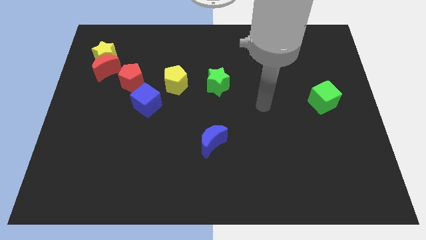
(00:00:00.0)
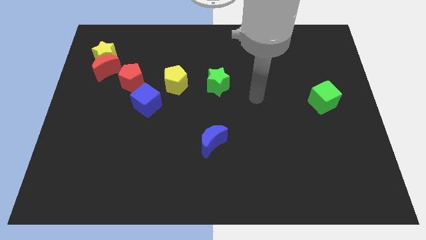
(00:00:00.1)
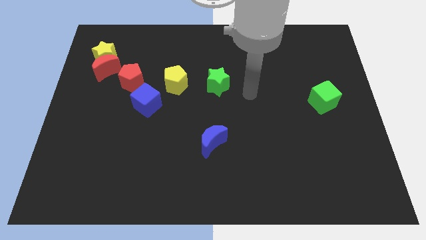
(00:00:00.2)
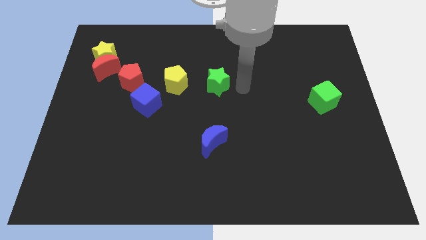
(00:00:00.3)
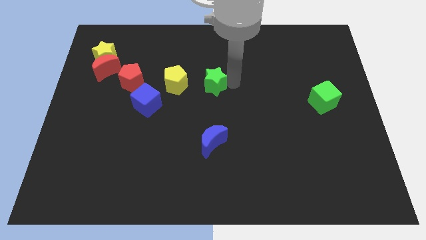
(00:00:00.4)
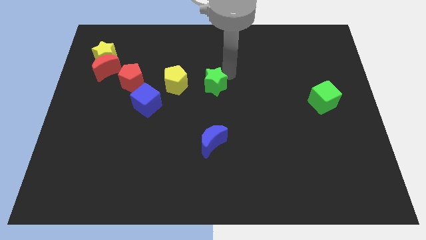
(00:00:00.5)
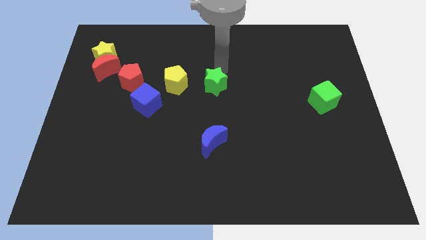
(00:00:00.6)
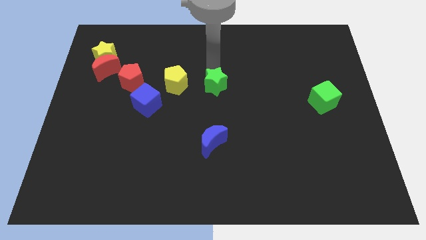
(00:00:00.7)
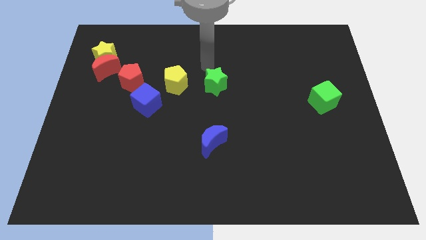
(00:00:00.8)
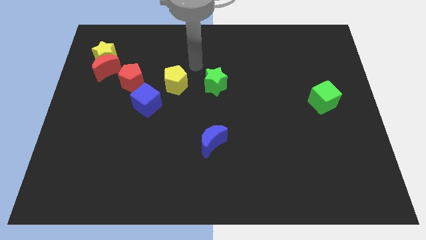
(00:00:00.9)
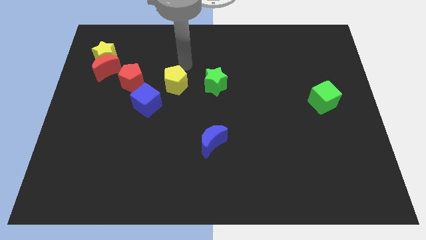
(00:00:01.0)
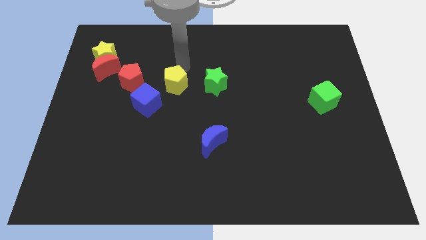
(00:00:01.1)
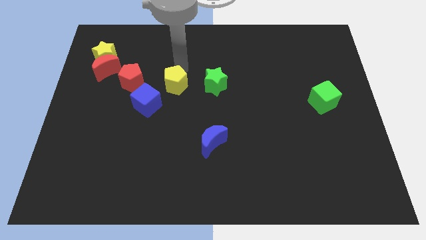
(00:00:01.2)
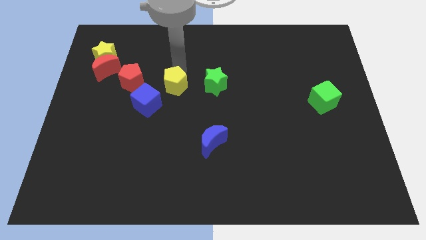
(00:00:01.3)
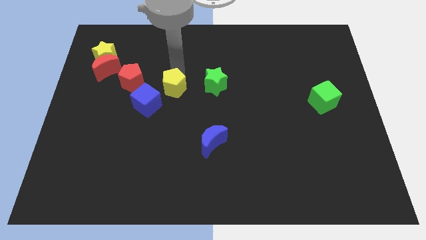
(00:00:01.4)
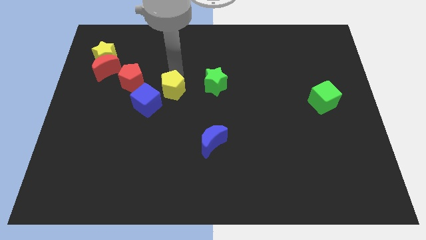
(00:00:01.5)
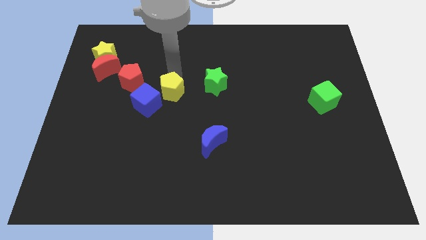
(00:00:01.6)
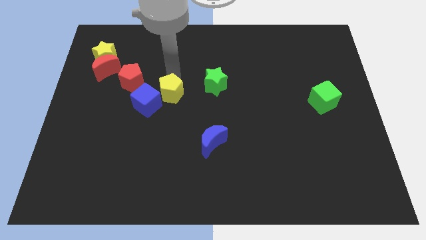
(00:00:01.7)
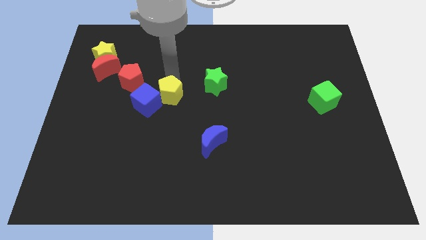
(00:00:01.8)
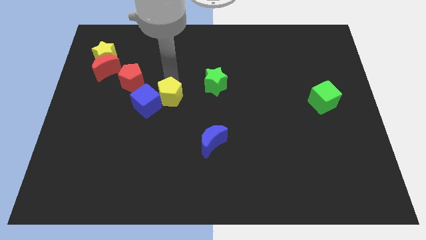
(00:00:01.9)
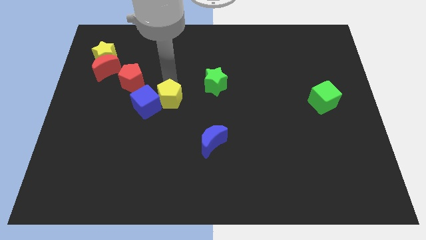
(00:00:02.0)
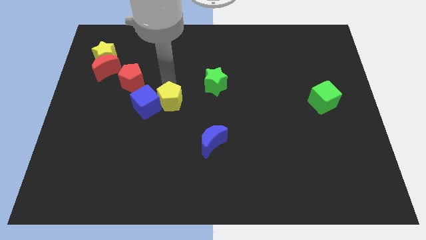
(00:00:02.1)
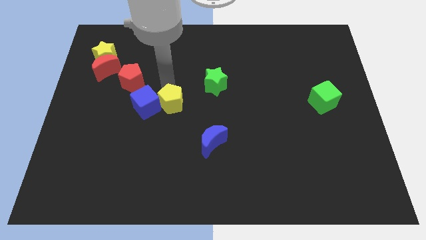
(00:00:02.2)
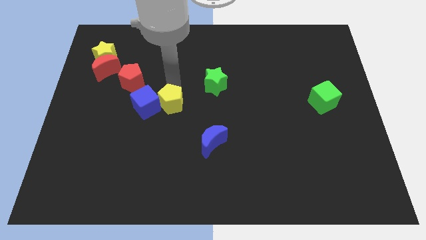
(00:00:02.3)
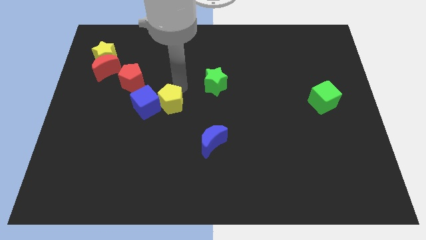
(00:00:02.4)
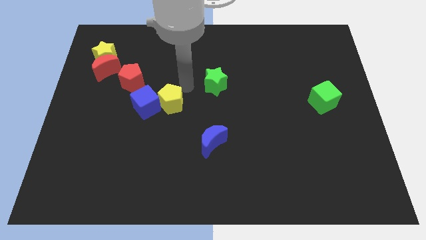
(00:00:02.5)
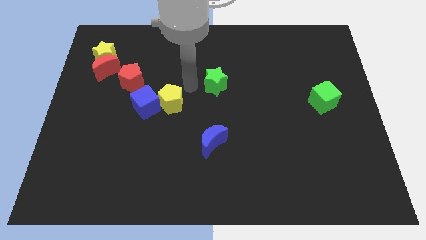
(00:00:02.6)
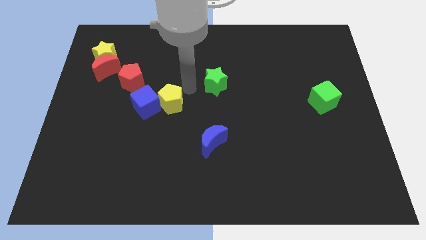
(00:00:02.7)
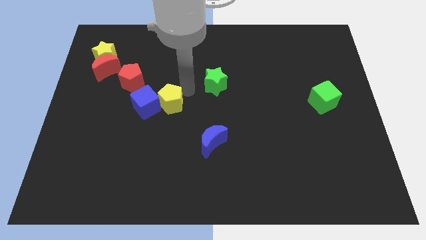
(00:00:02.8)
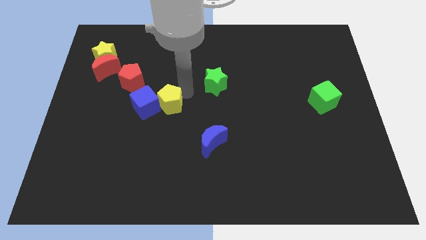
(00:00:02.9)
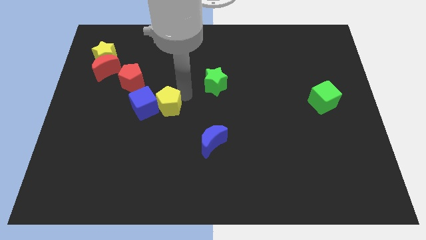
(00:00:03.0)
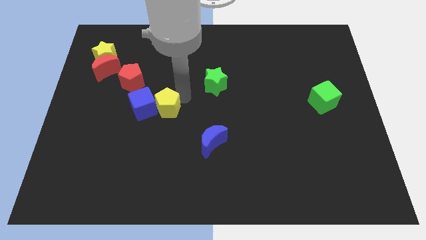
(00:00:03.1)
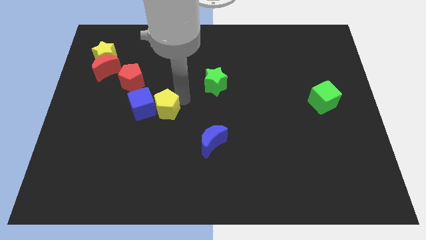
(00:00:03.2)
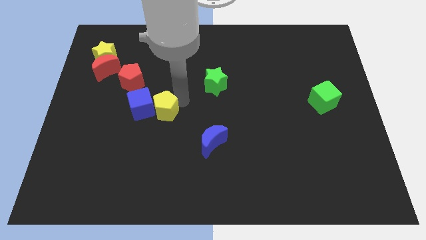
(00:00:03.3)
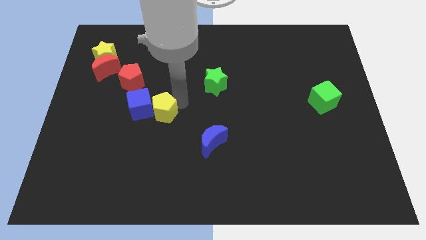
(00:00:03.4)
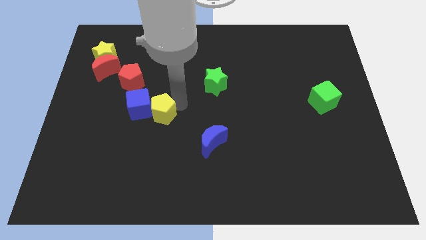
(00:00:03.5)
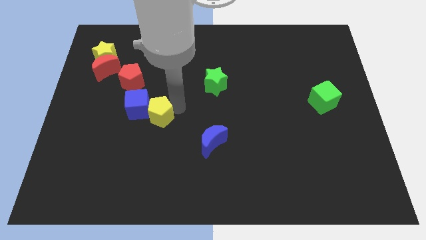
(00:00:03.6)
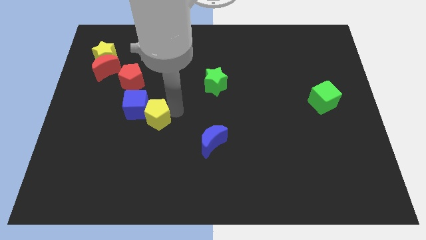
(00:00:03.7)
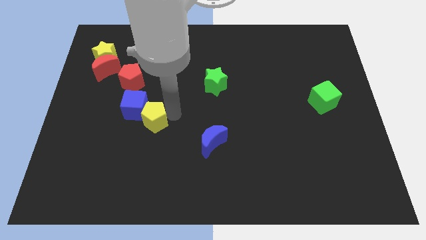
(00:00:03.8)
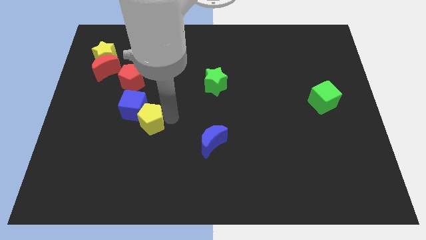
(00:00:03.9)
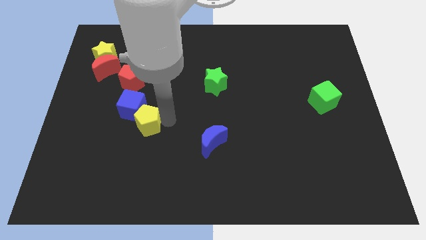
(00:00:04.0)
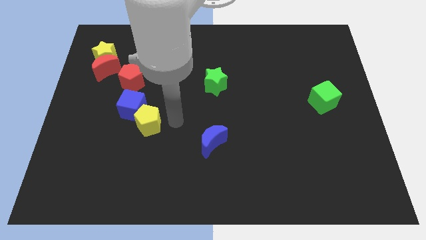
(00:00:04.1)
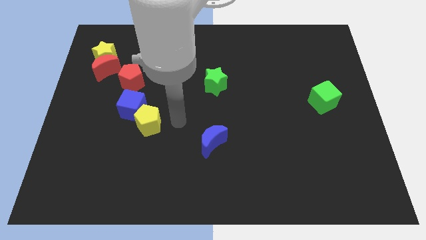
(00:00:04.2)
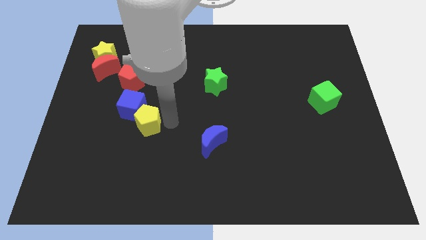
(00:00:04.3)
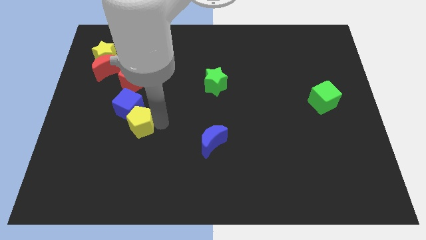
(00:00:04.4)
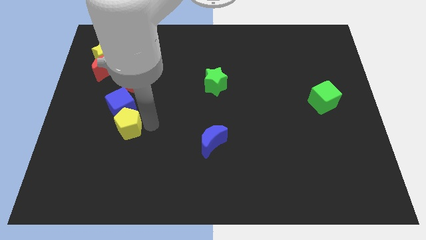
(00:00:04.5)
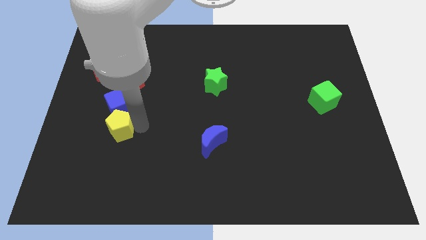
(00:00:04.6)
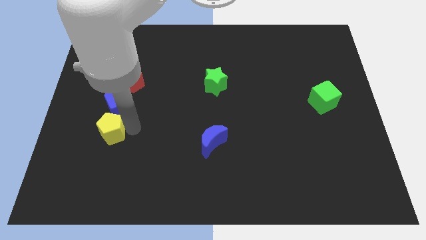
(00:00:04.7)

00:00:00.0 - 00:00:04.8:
push the yellow pentagon to the bottom left of the blue cube

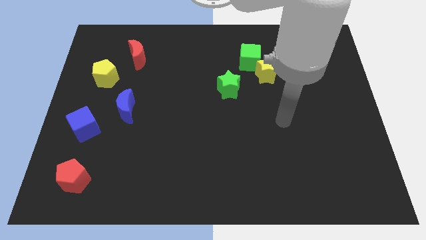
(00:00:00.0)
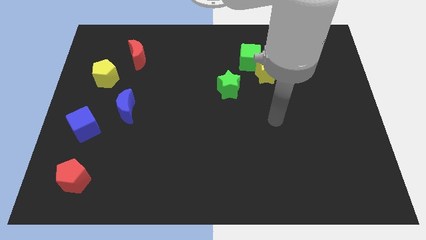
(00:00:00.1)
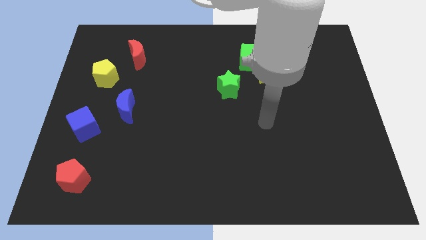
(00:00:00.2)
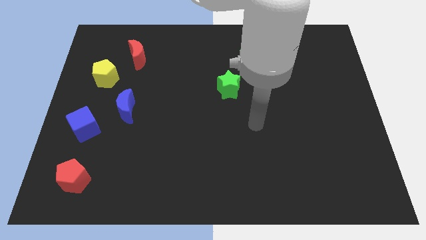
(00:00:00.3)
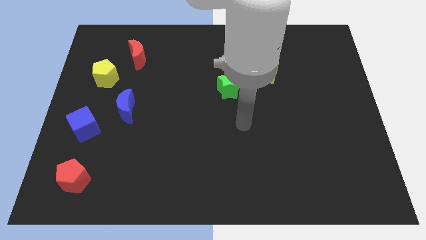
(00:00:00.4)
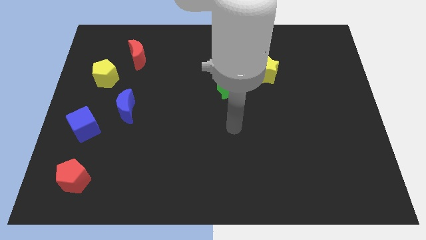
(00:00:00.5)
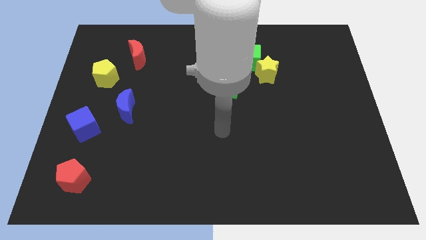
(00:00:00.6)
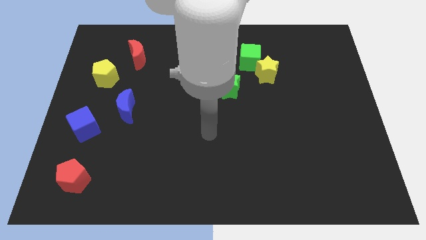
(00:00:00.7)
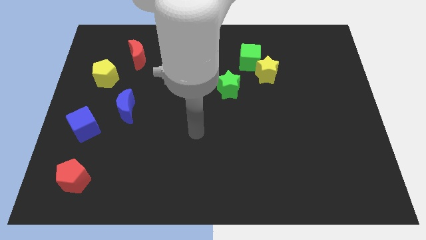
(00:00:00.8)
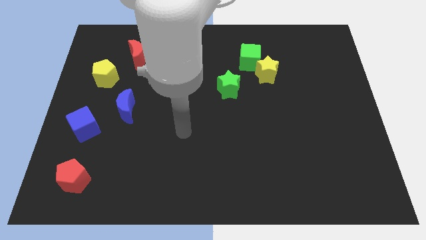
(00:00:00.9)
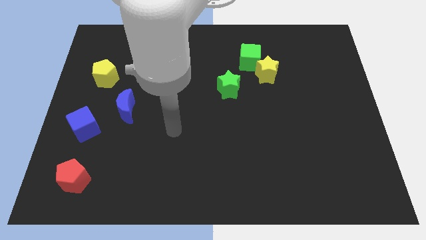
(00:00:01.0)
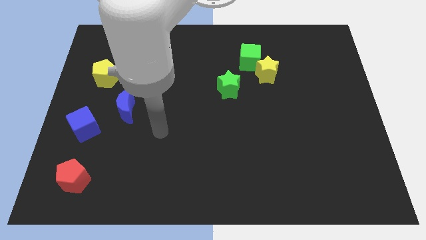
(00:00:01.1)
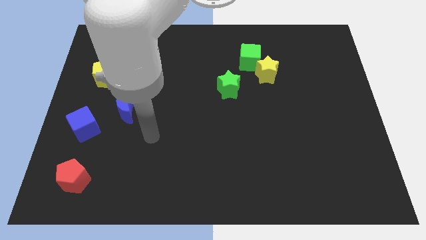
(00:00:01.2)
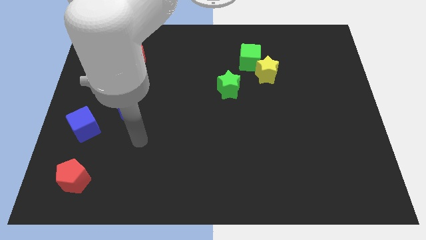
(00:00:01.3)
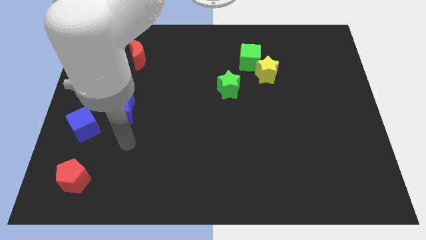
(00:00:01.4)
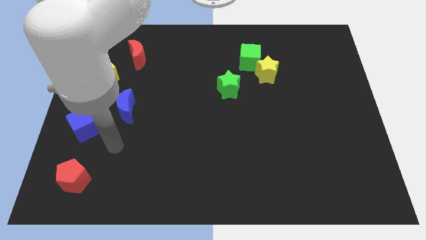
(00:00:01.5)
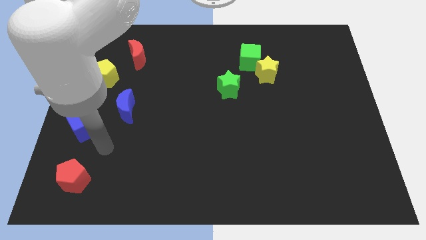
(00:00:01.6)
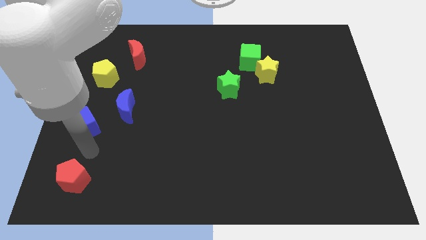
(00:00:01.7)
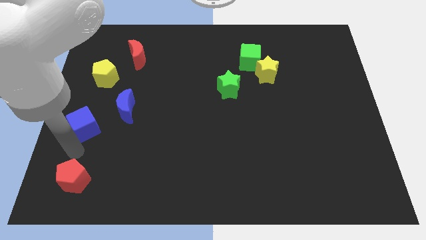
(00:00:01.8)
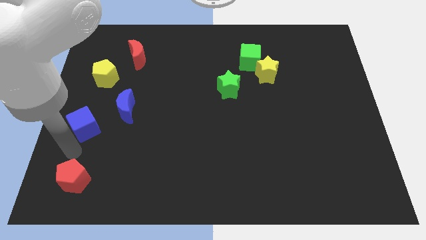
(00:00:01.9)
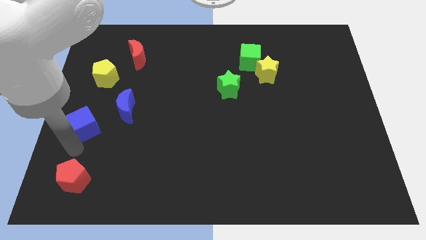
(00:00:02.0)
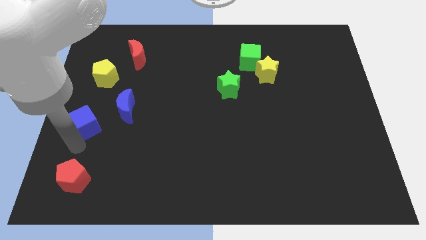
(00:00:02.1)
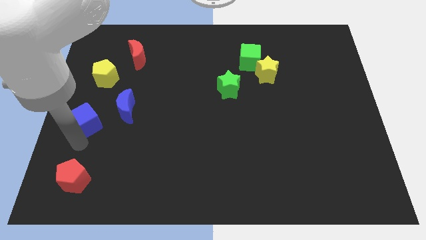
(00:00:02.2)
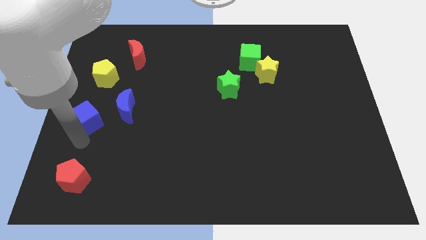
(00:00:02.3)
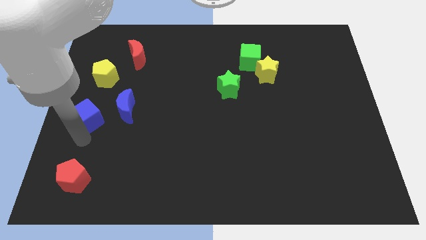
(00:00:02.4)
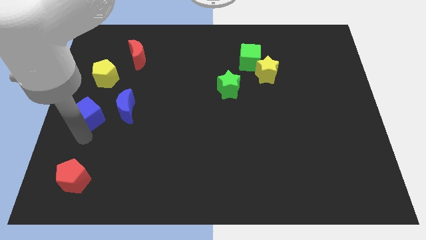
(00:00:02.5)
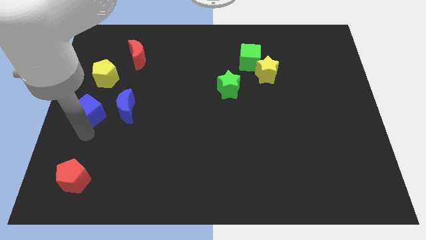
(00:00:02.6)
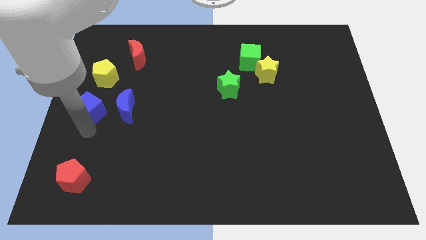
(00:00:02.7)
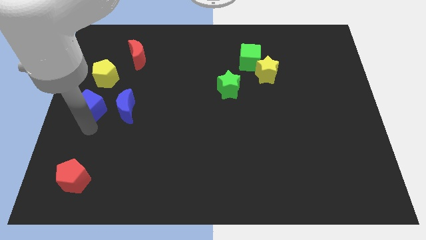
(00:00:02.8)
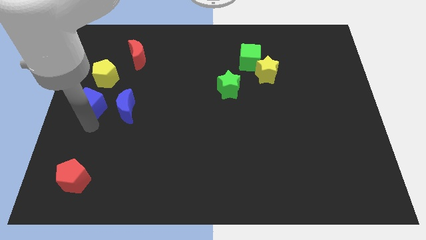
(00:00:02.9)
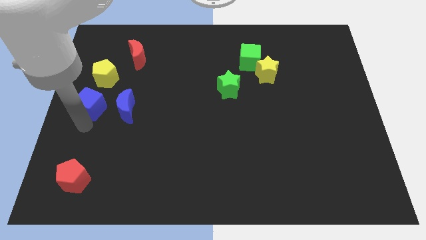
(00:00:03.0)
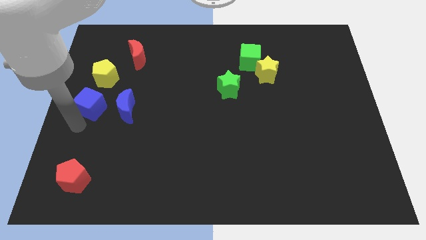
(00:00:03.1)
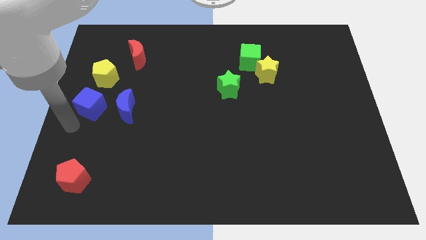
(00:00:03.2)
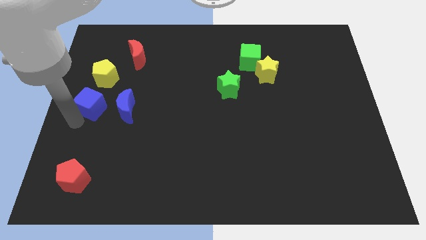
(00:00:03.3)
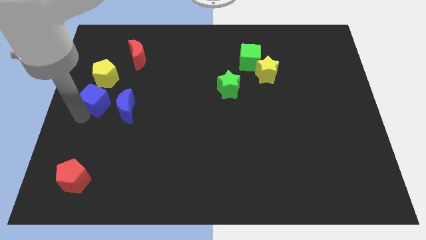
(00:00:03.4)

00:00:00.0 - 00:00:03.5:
push the blue cube diagonally up and to the left of the blue moon
